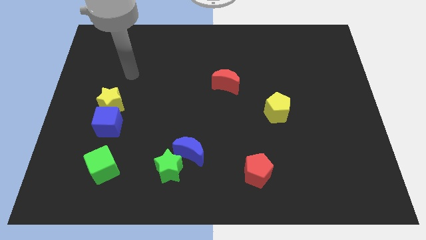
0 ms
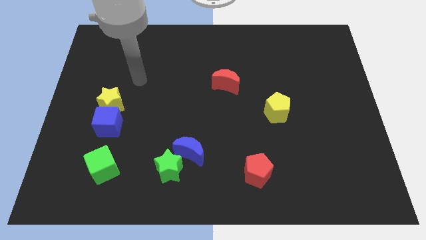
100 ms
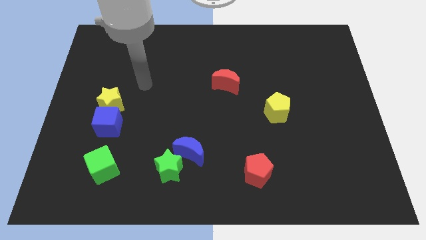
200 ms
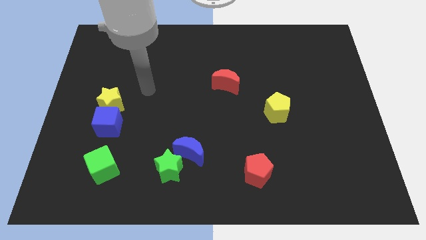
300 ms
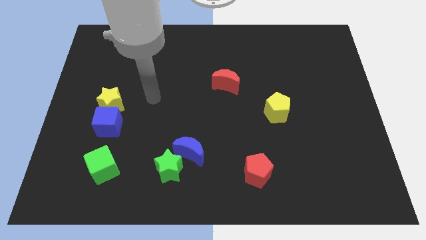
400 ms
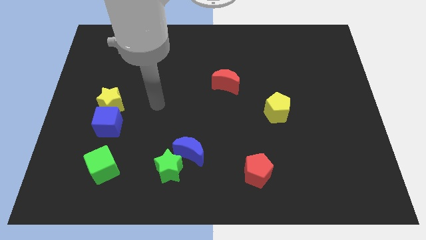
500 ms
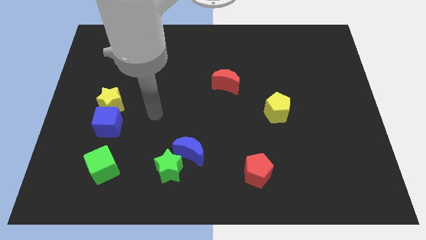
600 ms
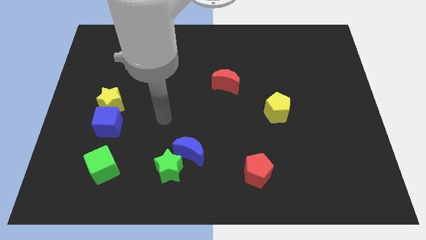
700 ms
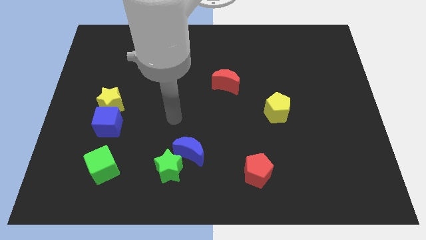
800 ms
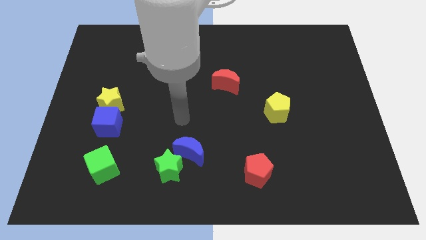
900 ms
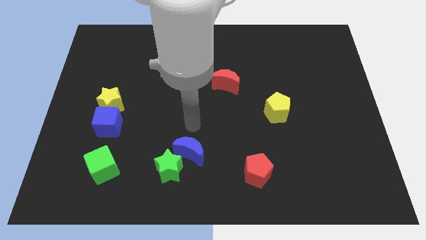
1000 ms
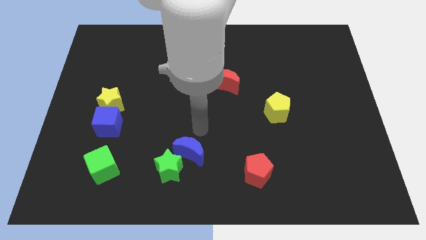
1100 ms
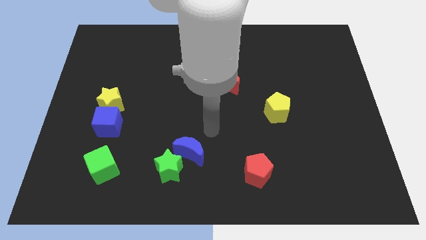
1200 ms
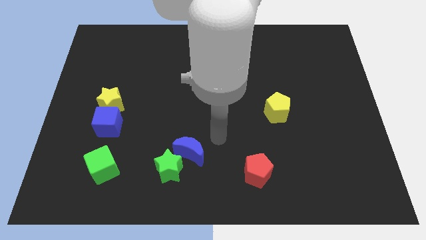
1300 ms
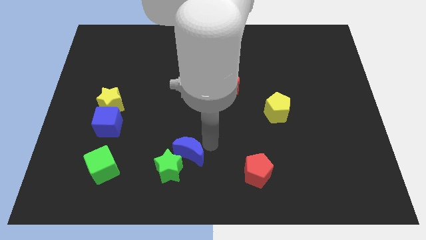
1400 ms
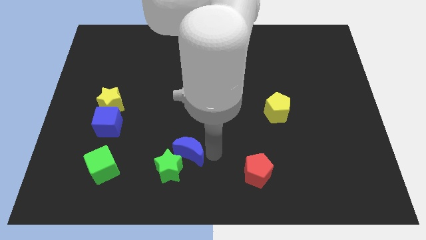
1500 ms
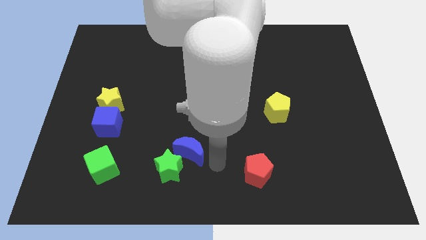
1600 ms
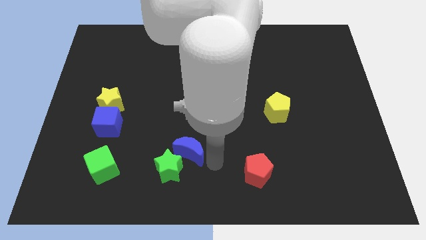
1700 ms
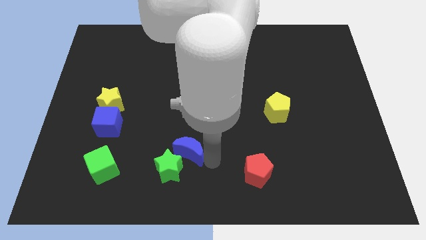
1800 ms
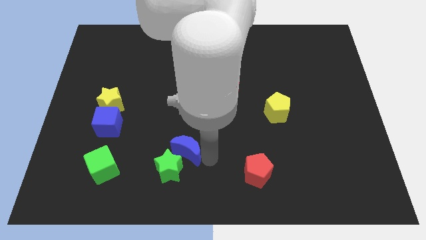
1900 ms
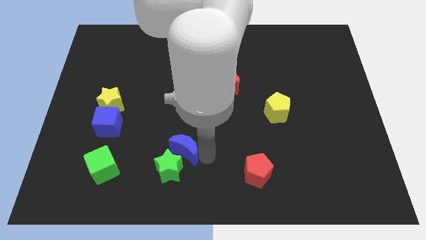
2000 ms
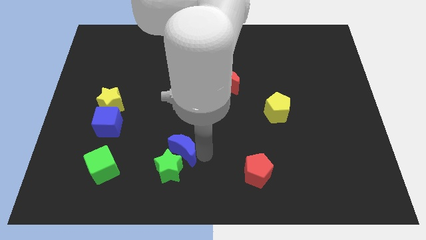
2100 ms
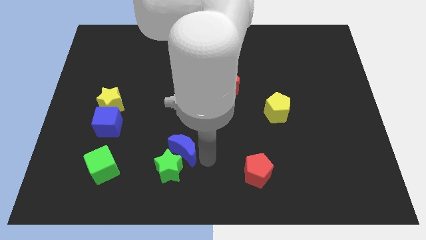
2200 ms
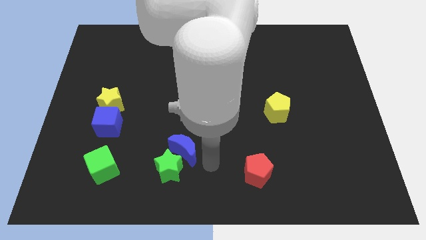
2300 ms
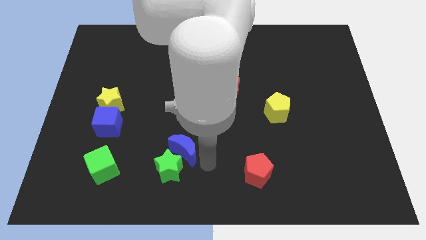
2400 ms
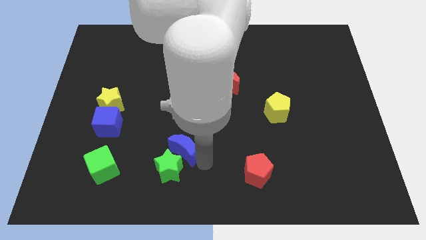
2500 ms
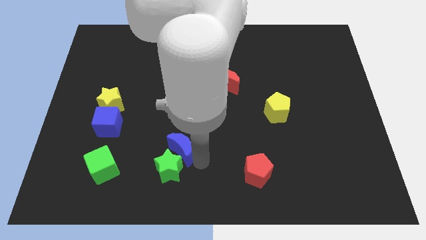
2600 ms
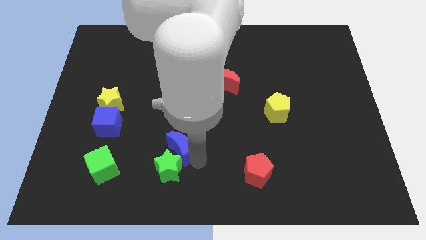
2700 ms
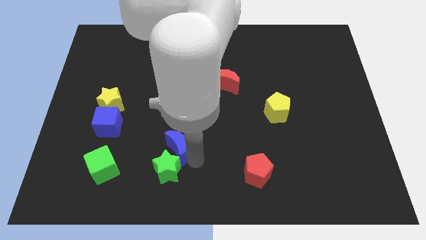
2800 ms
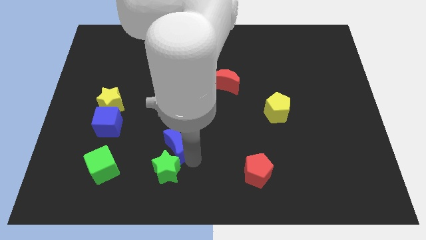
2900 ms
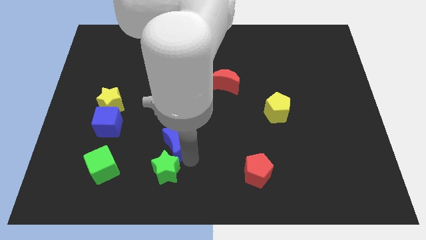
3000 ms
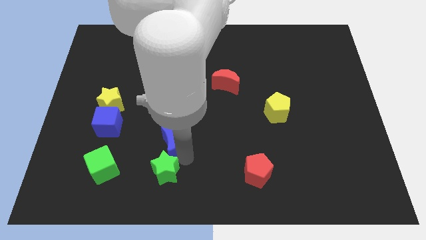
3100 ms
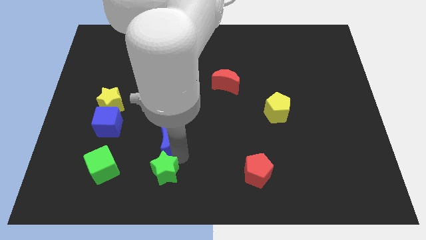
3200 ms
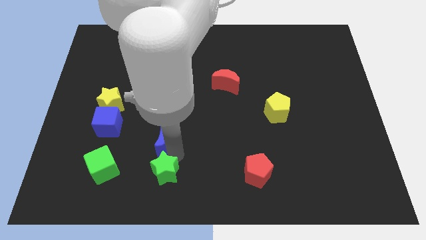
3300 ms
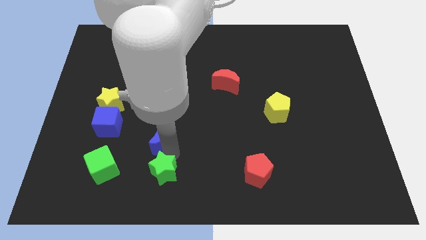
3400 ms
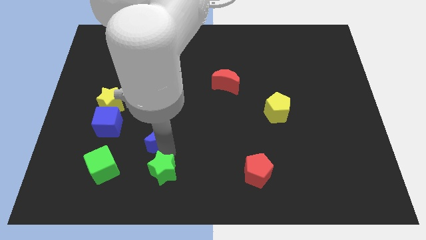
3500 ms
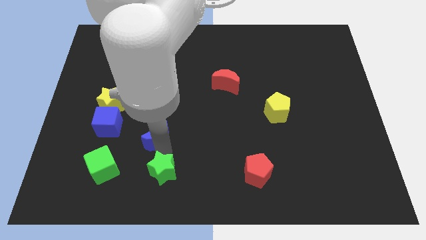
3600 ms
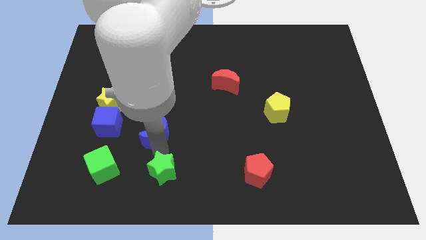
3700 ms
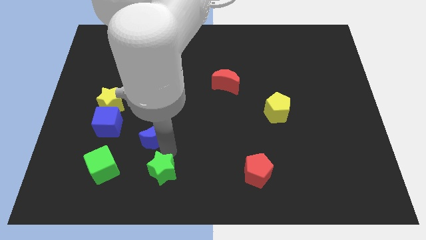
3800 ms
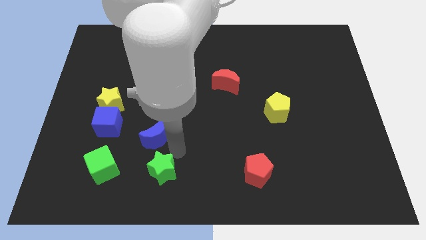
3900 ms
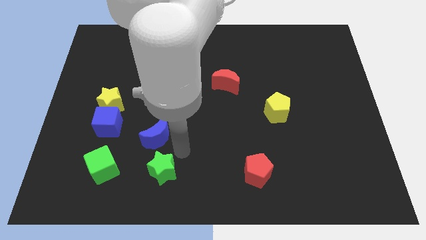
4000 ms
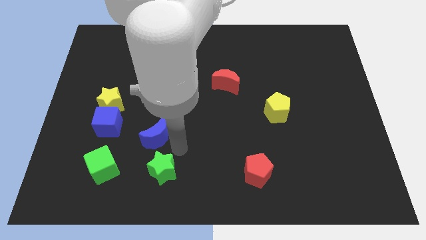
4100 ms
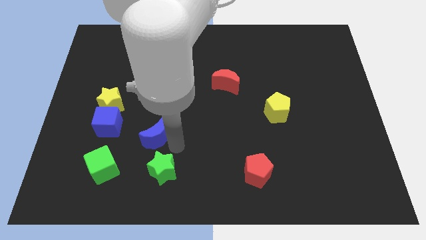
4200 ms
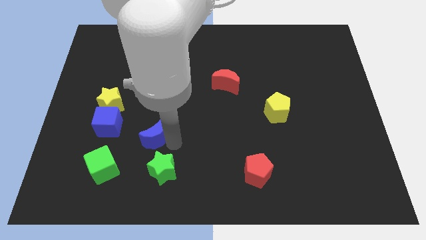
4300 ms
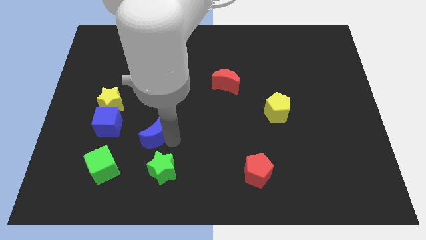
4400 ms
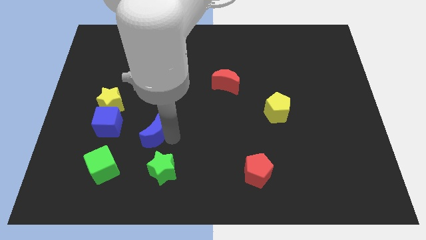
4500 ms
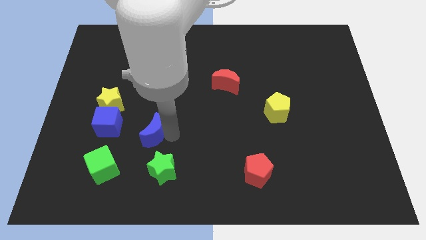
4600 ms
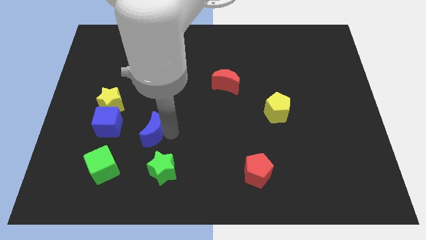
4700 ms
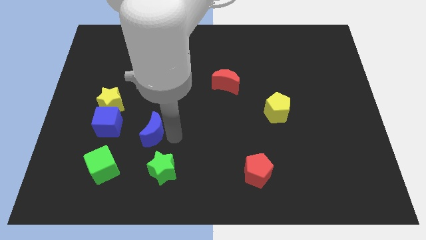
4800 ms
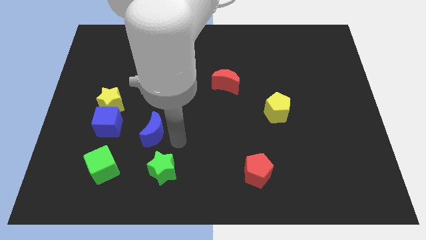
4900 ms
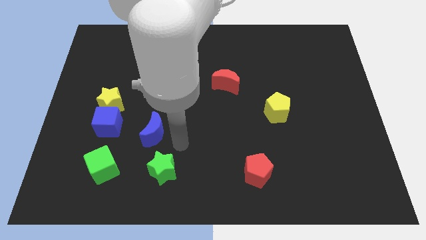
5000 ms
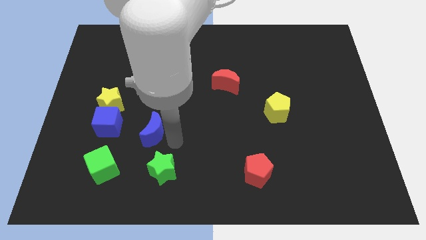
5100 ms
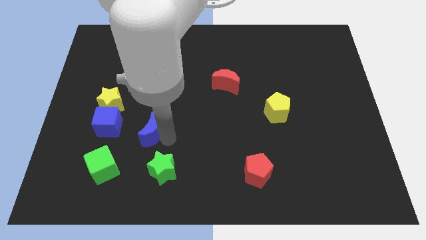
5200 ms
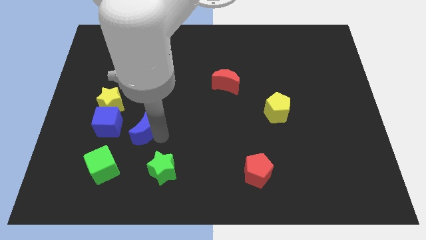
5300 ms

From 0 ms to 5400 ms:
put the blue moon to the bottom right of the yellow star
